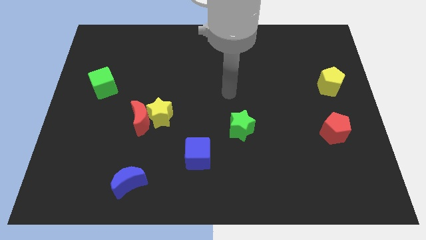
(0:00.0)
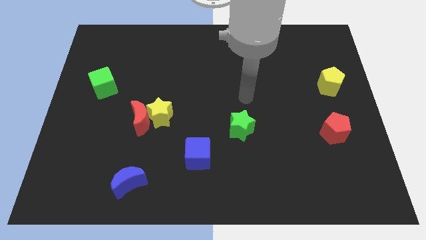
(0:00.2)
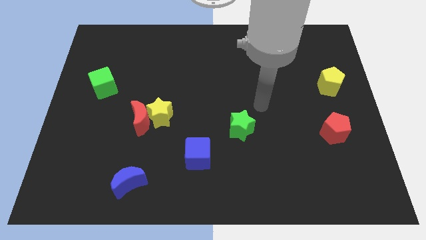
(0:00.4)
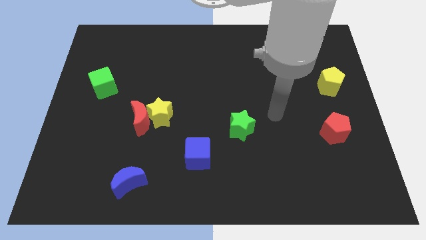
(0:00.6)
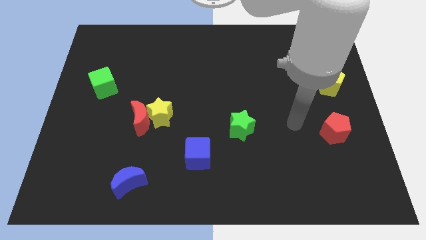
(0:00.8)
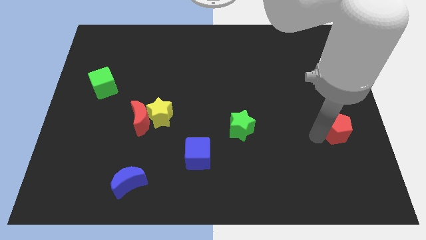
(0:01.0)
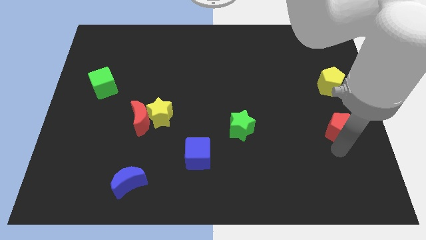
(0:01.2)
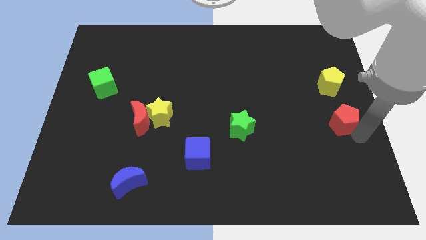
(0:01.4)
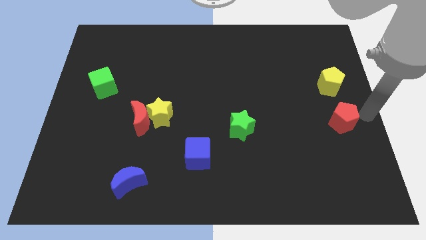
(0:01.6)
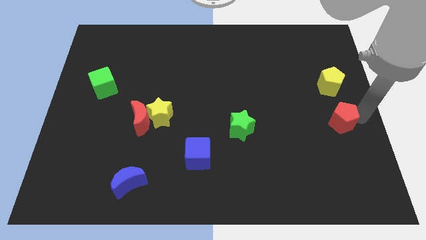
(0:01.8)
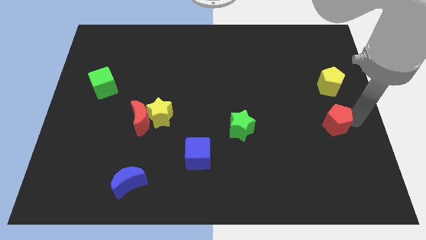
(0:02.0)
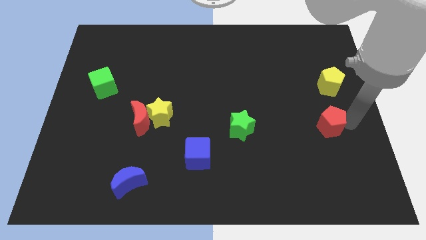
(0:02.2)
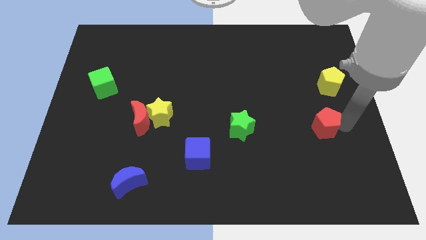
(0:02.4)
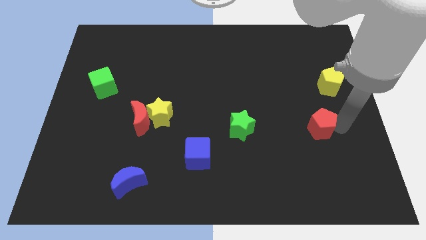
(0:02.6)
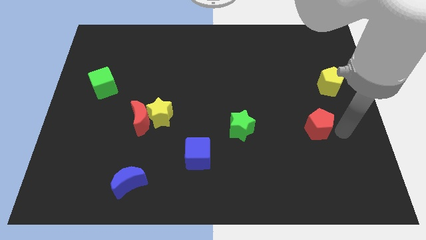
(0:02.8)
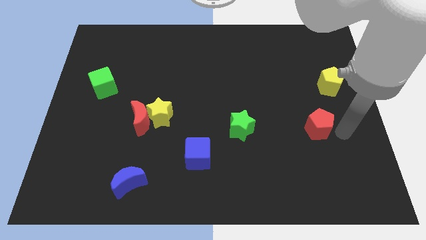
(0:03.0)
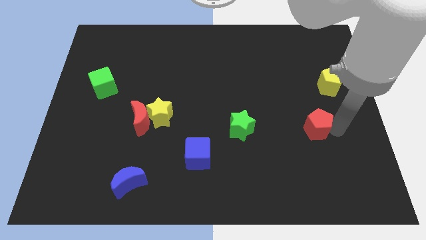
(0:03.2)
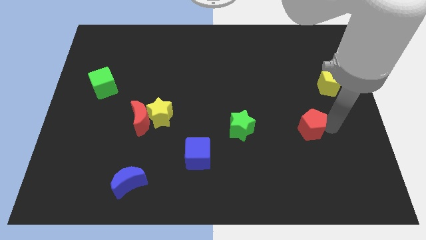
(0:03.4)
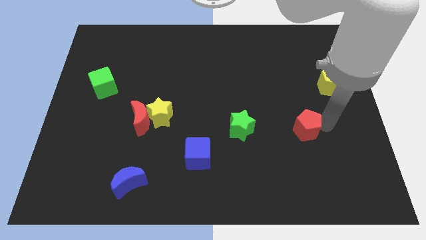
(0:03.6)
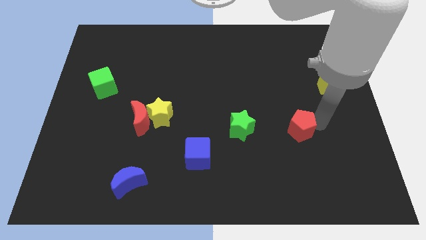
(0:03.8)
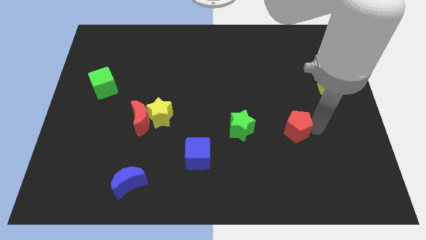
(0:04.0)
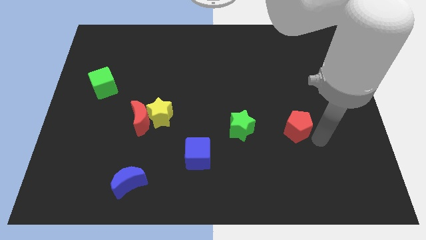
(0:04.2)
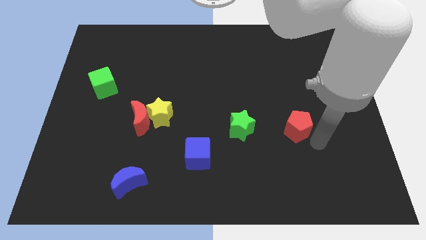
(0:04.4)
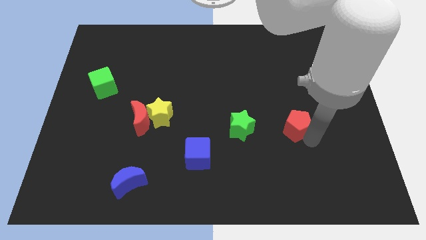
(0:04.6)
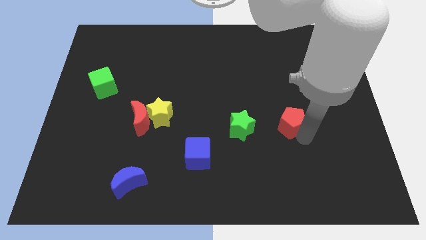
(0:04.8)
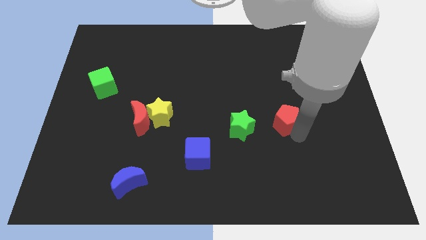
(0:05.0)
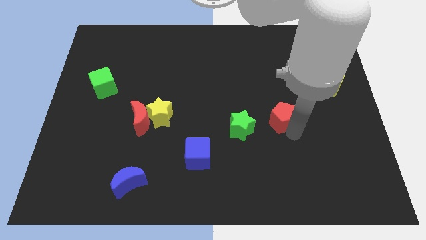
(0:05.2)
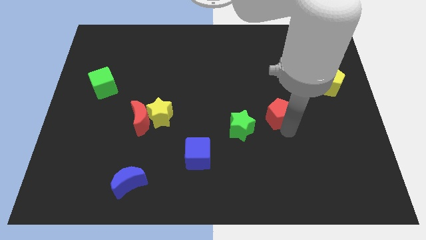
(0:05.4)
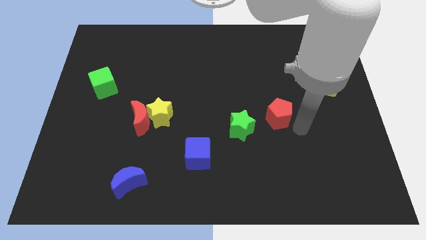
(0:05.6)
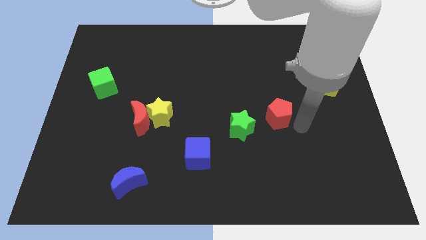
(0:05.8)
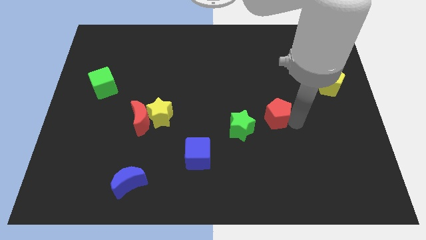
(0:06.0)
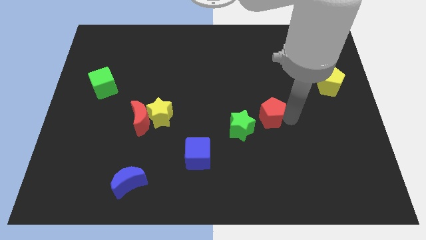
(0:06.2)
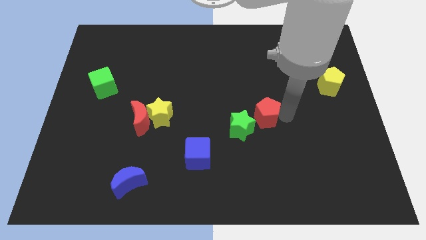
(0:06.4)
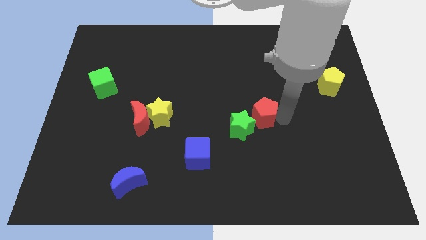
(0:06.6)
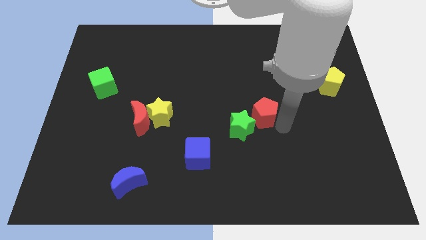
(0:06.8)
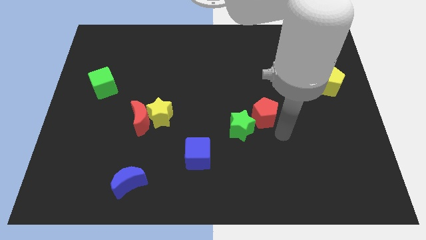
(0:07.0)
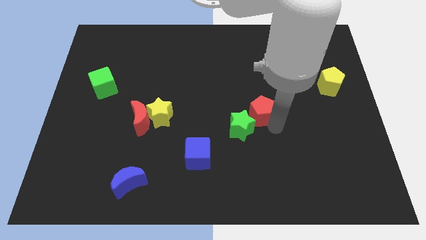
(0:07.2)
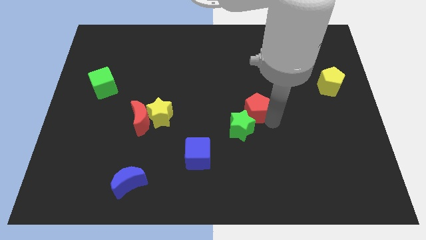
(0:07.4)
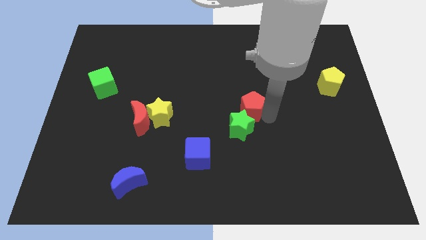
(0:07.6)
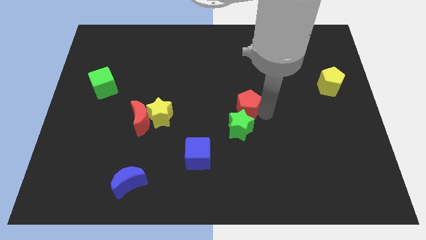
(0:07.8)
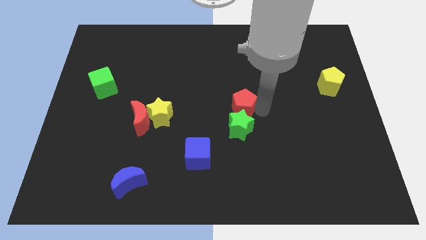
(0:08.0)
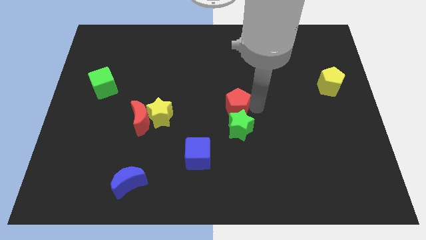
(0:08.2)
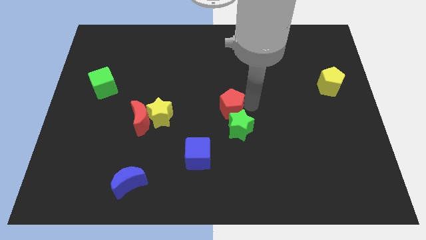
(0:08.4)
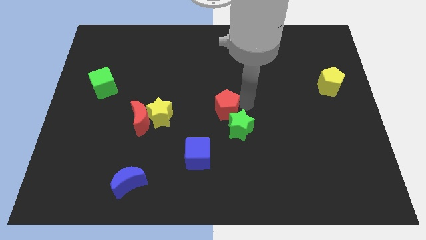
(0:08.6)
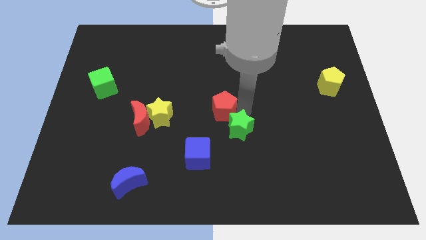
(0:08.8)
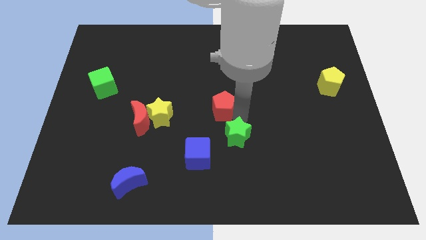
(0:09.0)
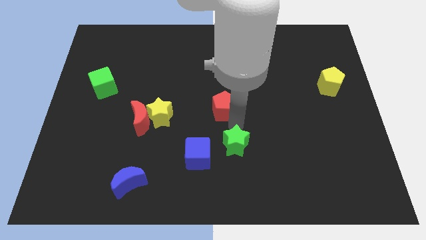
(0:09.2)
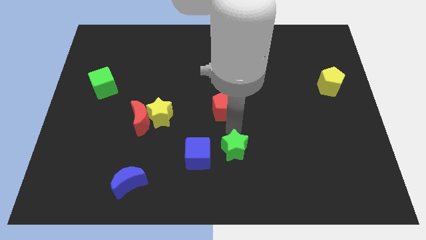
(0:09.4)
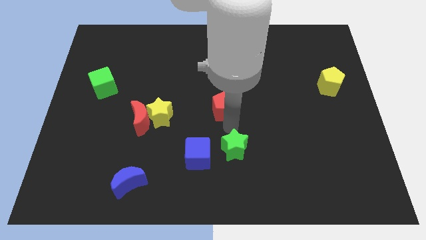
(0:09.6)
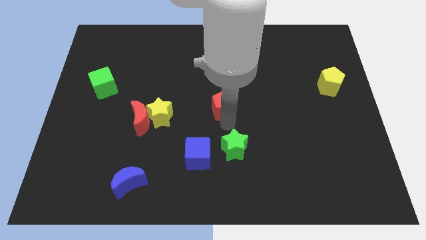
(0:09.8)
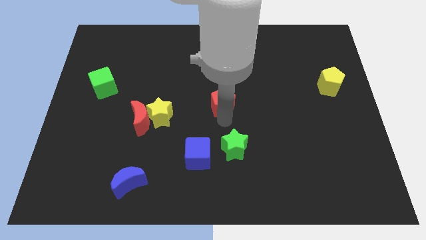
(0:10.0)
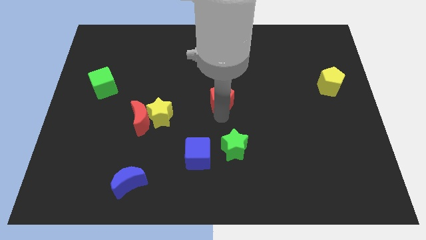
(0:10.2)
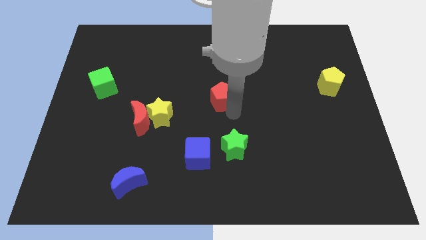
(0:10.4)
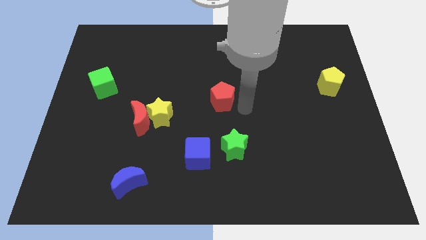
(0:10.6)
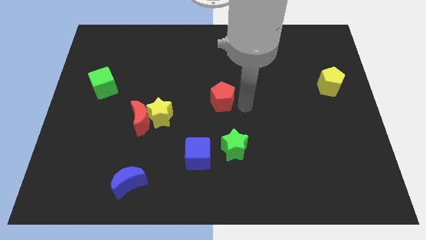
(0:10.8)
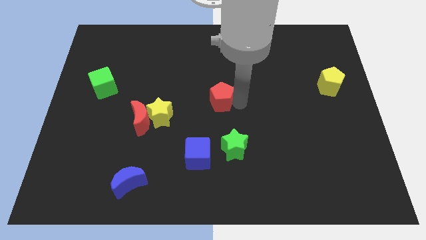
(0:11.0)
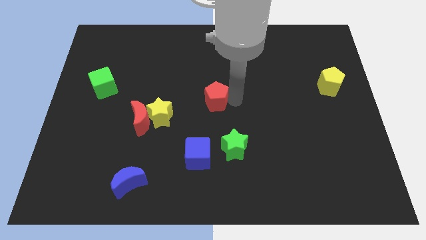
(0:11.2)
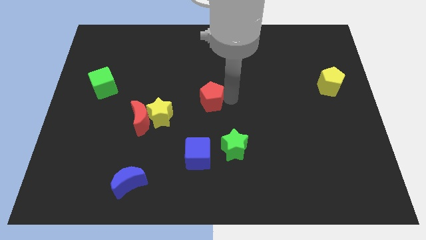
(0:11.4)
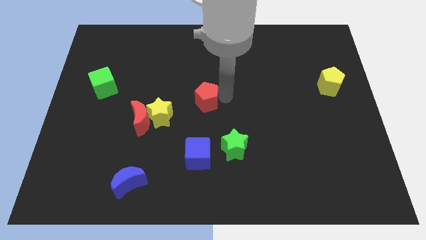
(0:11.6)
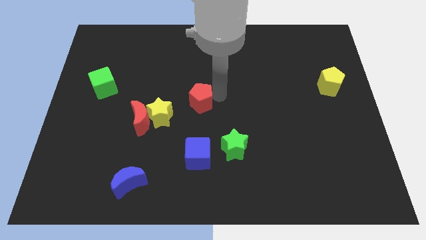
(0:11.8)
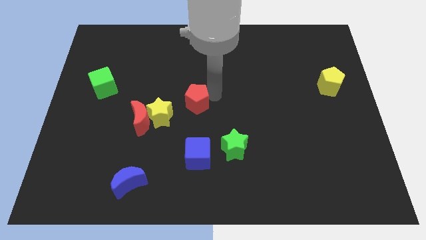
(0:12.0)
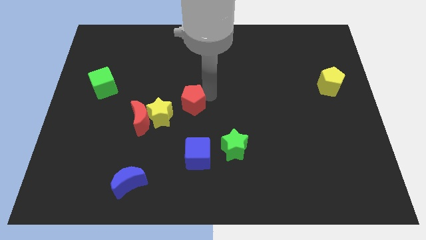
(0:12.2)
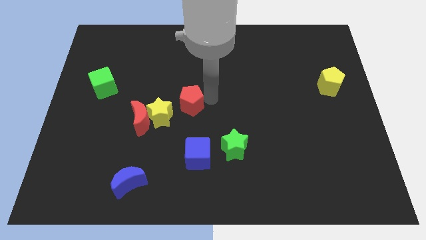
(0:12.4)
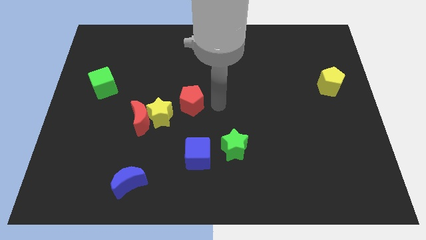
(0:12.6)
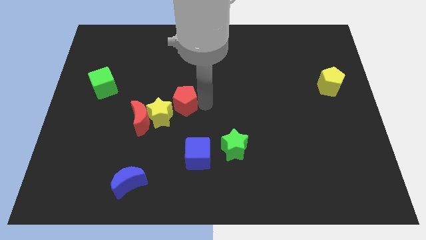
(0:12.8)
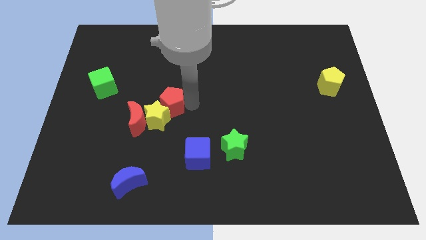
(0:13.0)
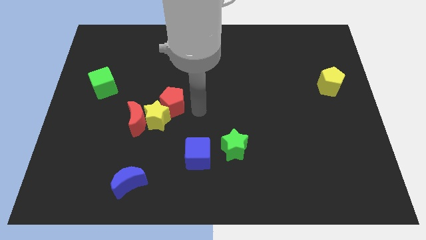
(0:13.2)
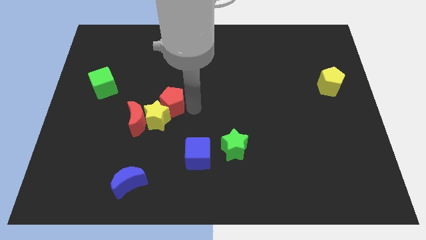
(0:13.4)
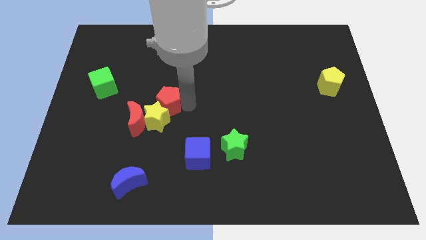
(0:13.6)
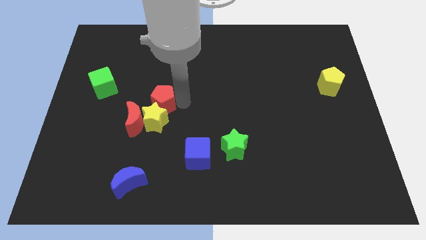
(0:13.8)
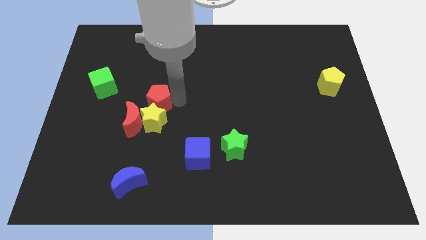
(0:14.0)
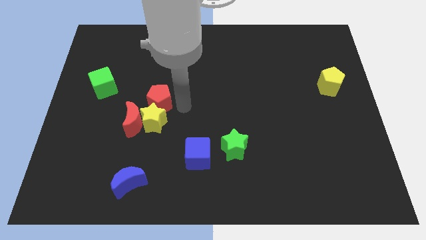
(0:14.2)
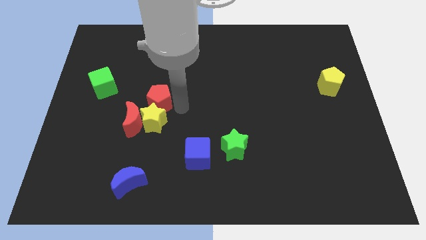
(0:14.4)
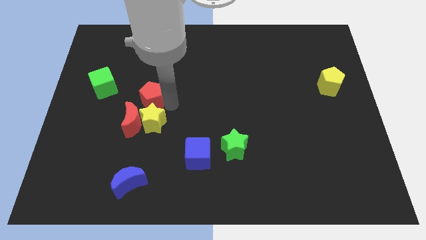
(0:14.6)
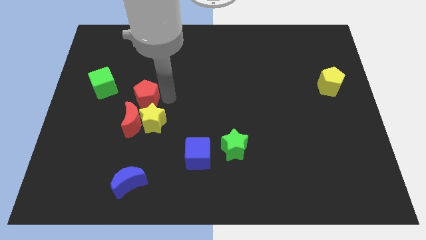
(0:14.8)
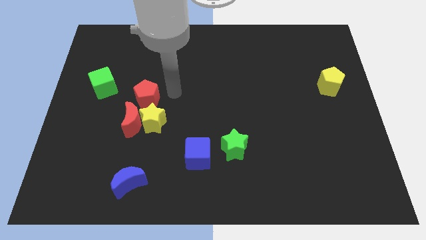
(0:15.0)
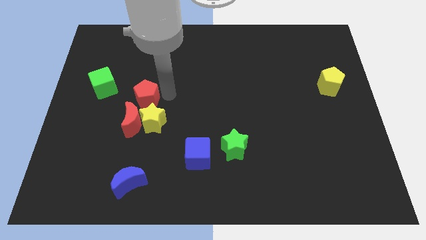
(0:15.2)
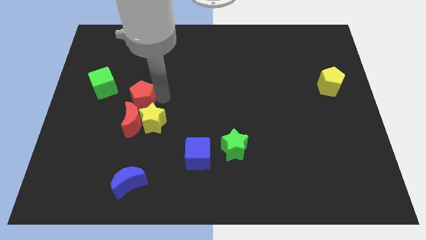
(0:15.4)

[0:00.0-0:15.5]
push the red pentagon diagonally down and to the right of the green cube
